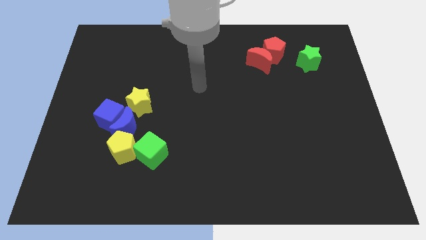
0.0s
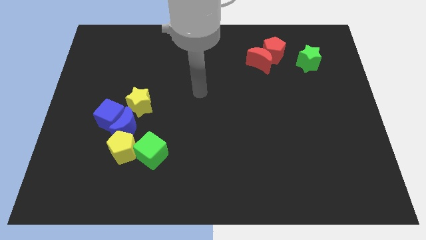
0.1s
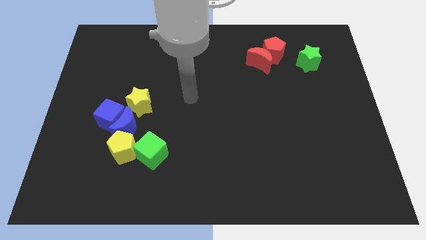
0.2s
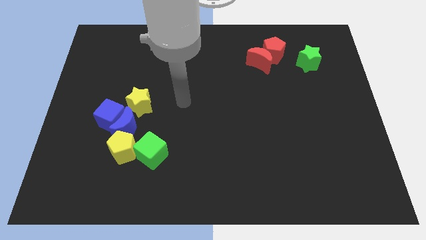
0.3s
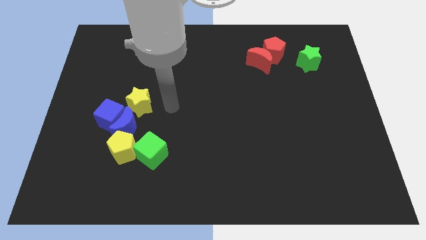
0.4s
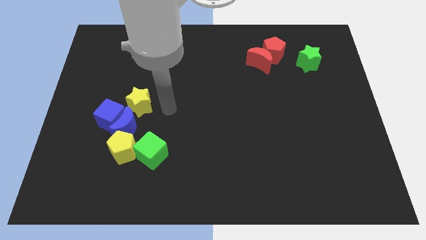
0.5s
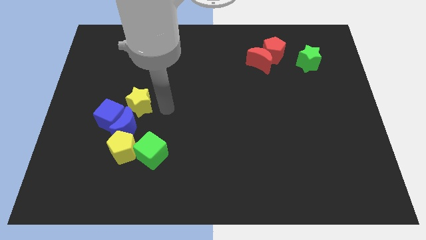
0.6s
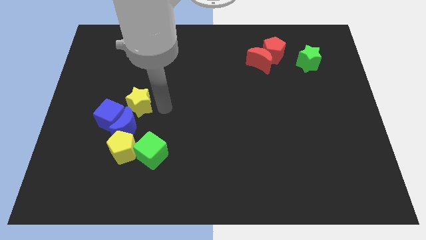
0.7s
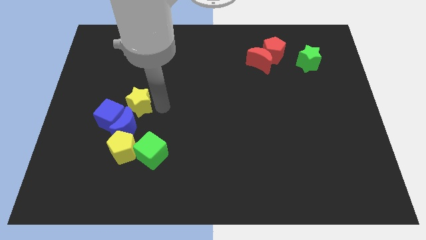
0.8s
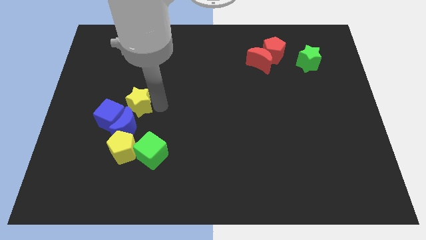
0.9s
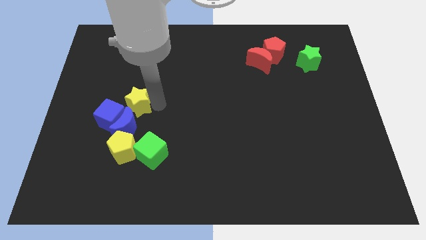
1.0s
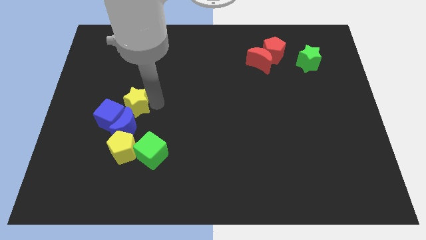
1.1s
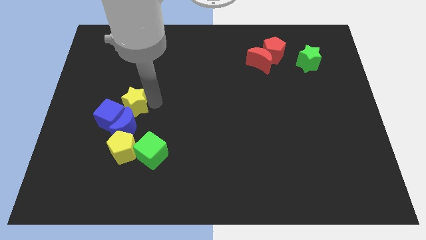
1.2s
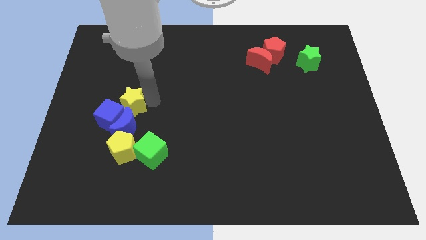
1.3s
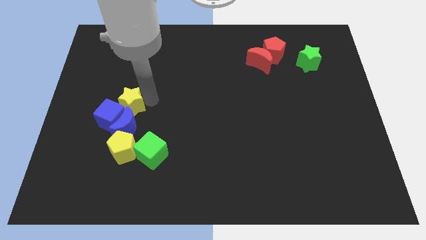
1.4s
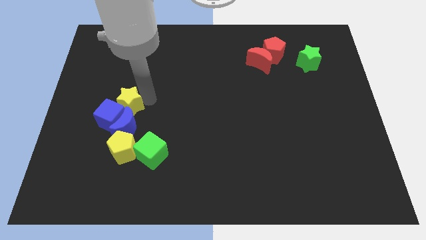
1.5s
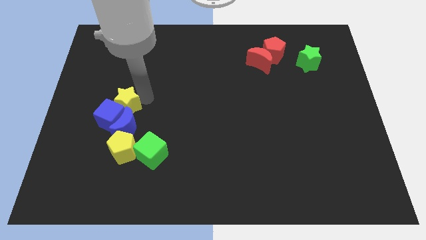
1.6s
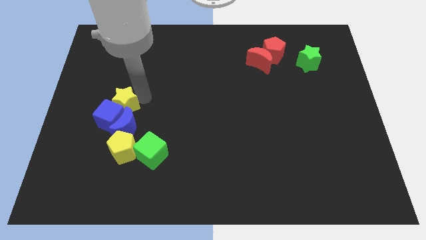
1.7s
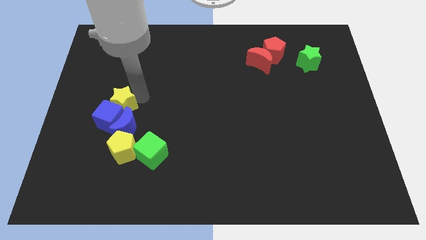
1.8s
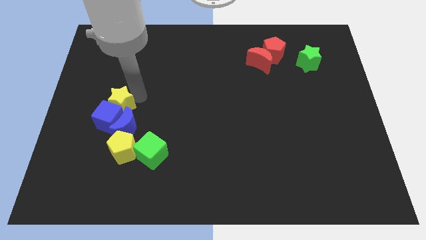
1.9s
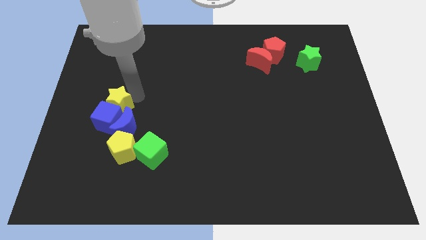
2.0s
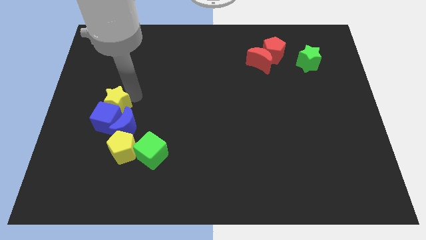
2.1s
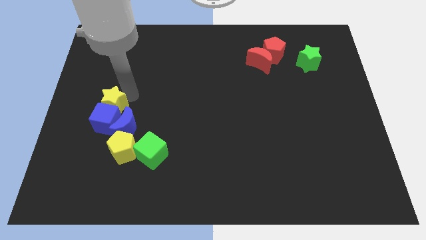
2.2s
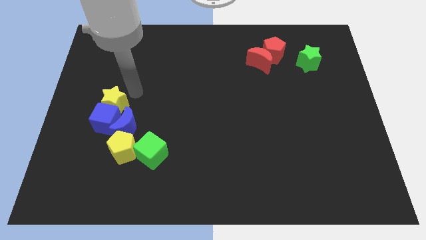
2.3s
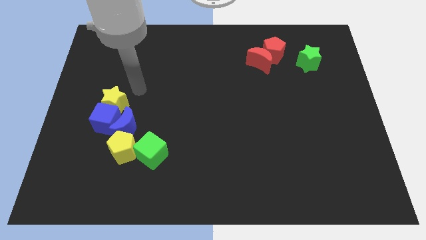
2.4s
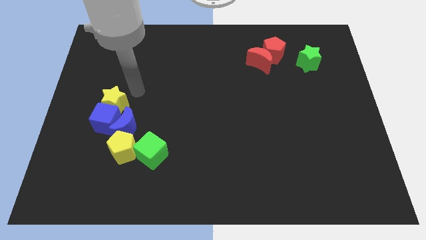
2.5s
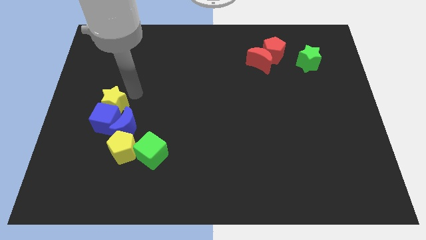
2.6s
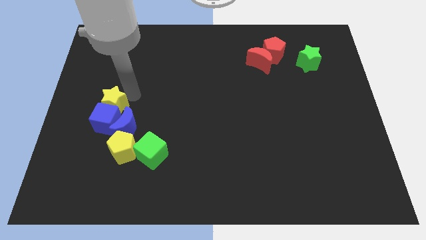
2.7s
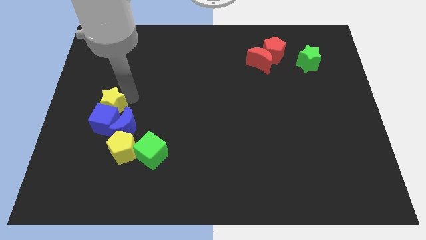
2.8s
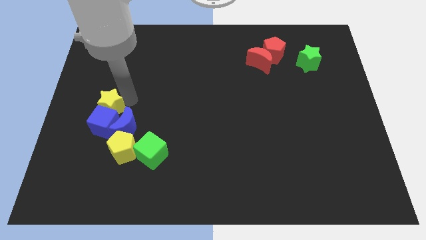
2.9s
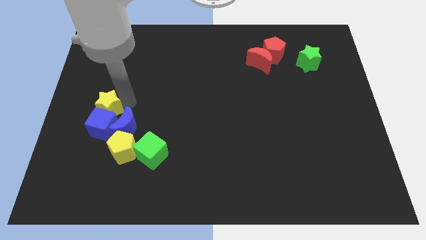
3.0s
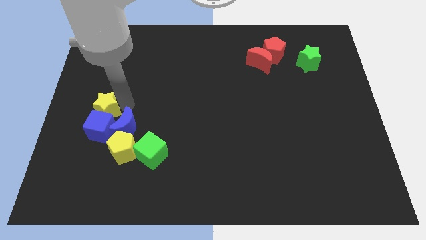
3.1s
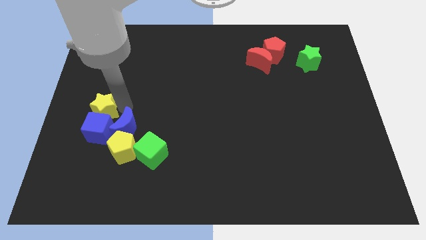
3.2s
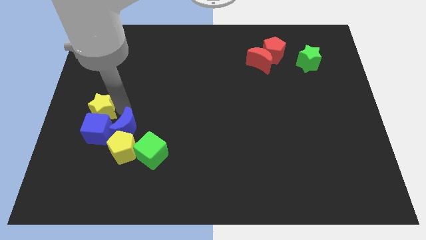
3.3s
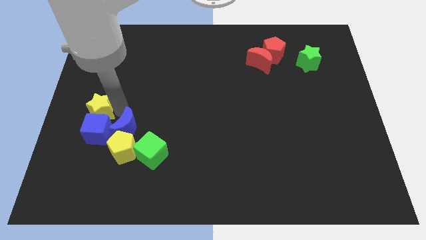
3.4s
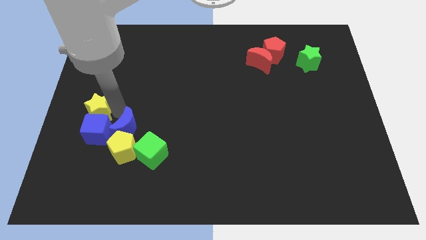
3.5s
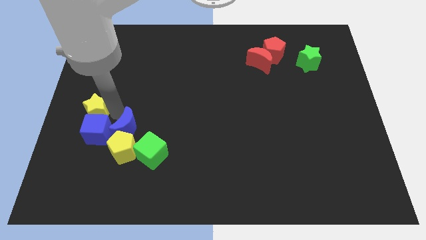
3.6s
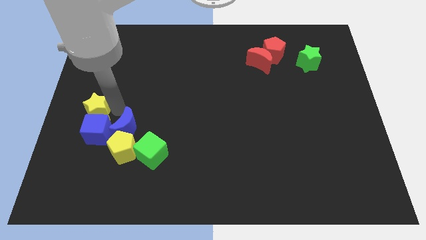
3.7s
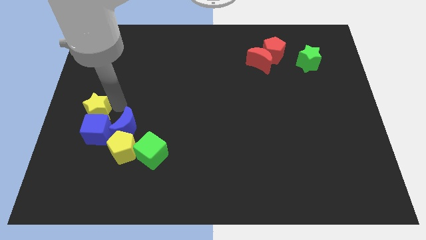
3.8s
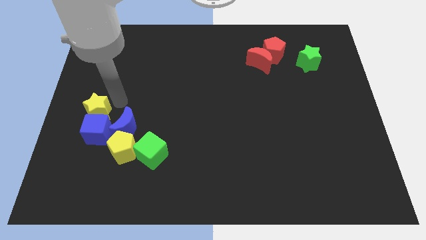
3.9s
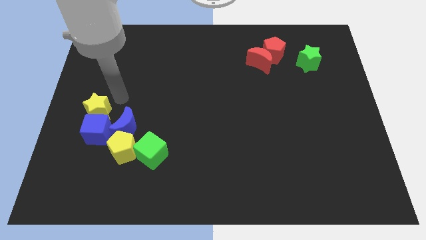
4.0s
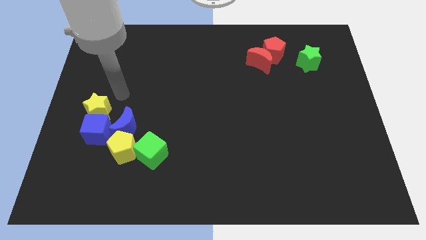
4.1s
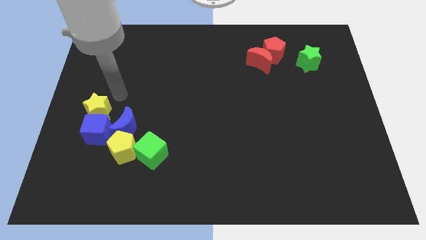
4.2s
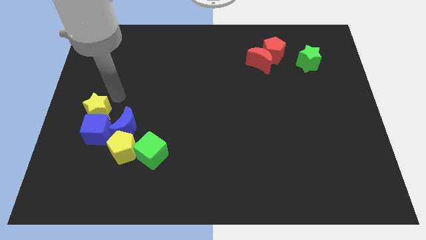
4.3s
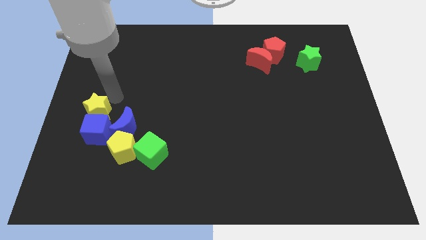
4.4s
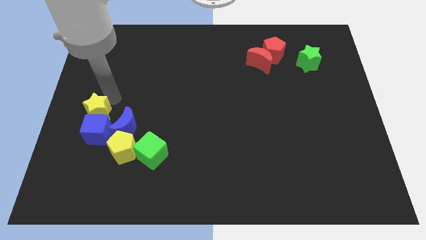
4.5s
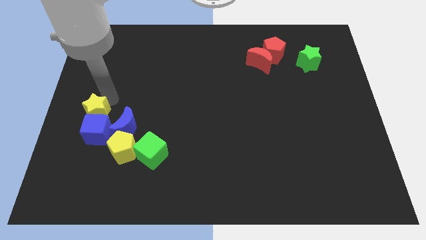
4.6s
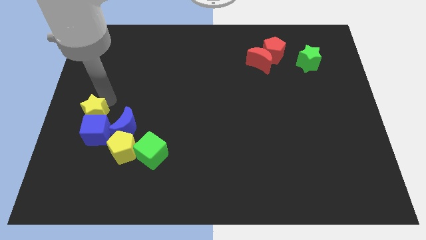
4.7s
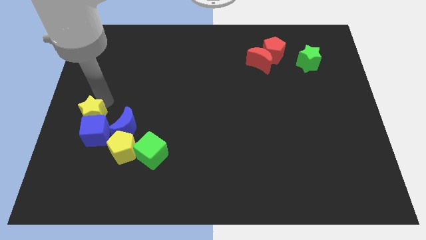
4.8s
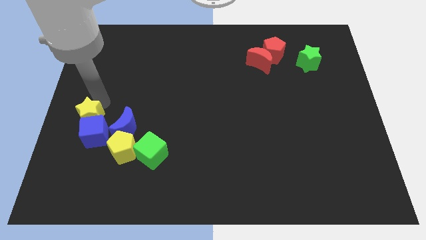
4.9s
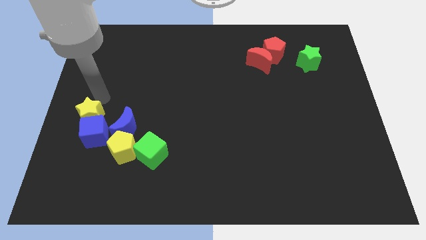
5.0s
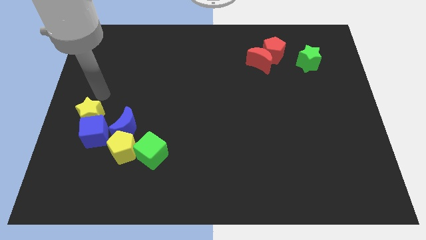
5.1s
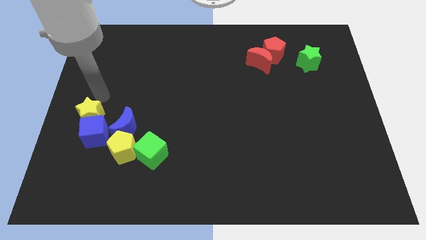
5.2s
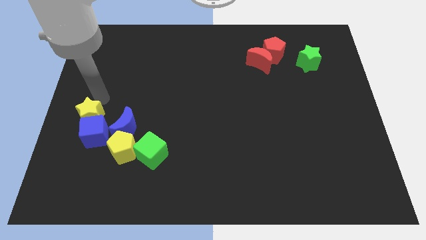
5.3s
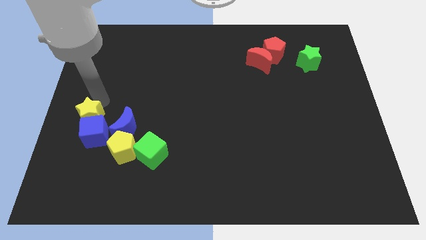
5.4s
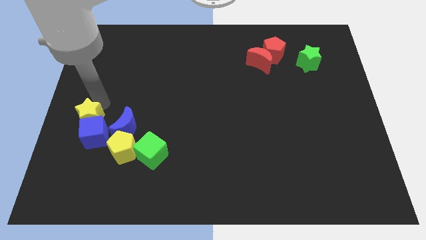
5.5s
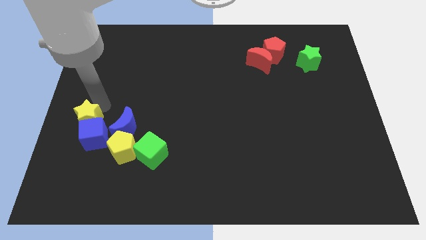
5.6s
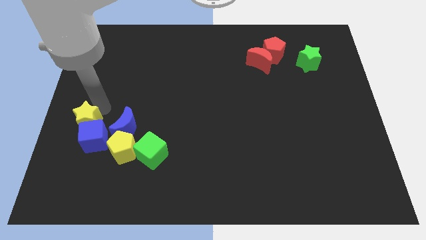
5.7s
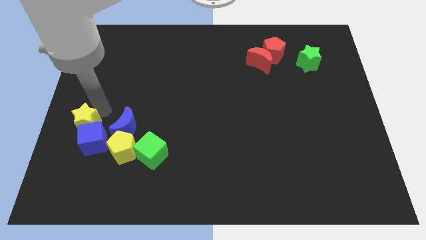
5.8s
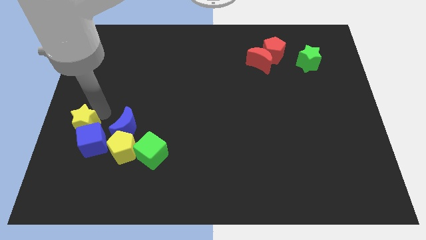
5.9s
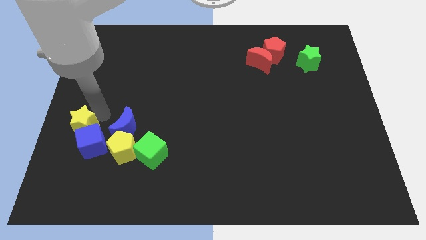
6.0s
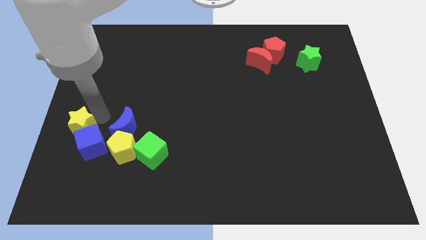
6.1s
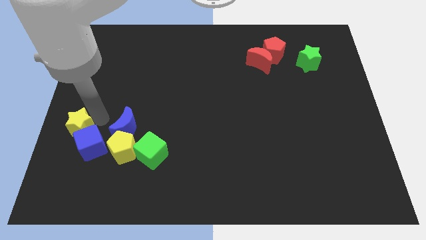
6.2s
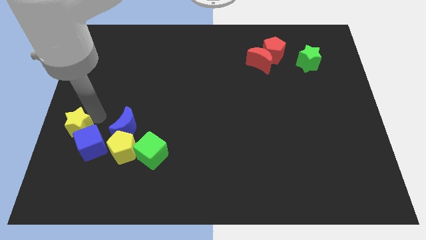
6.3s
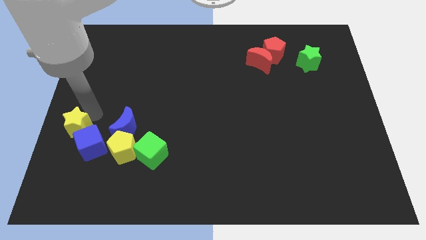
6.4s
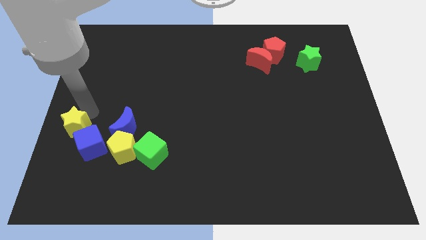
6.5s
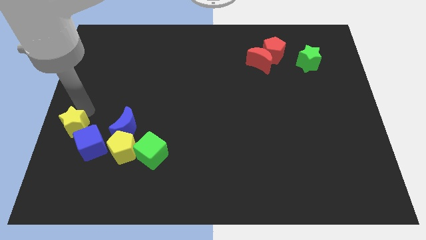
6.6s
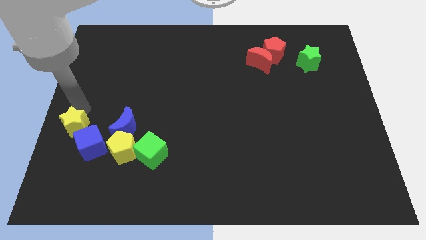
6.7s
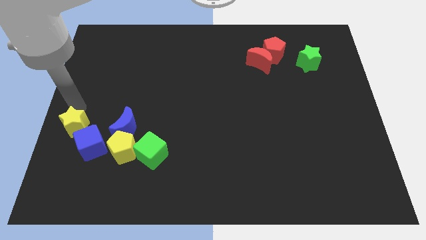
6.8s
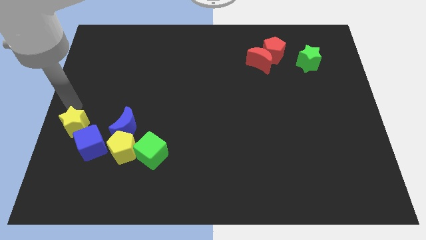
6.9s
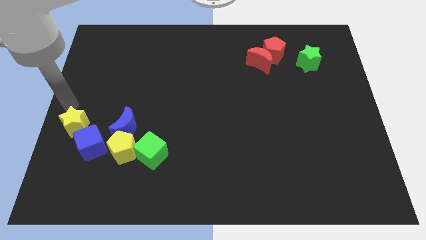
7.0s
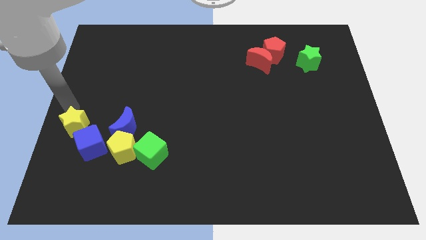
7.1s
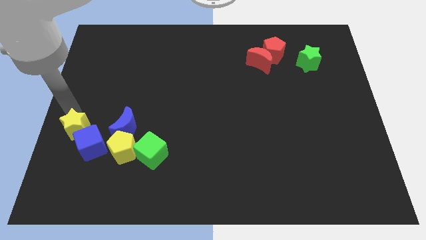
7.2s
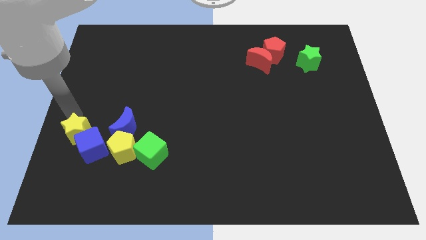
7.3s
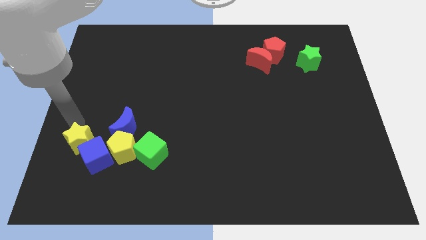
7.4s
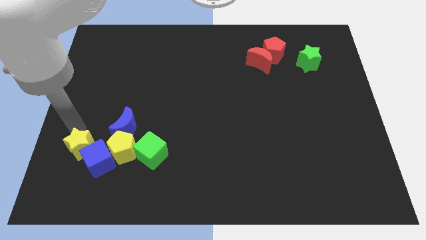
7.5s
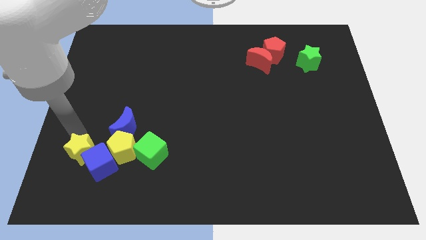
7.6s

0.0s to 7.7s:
slightly move the yellow star downwards

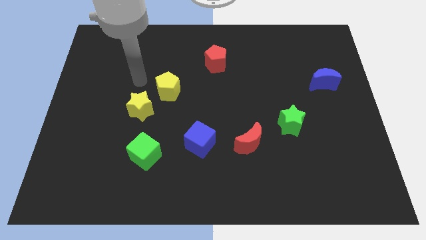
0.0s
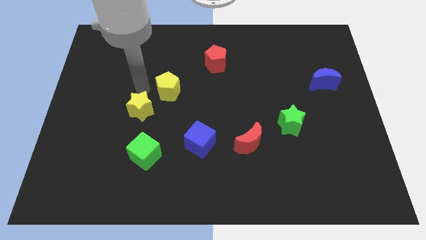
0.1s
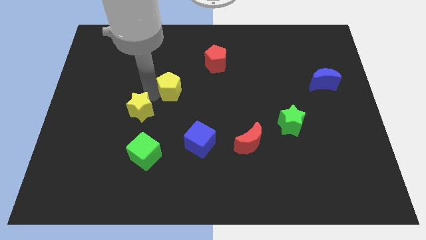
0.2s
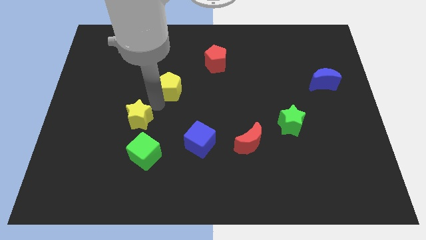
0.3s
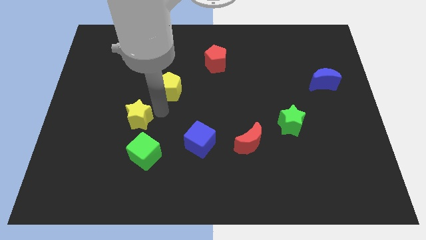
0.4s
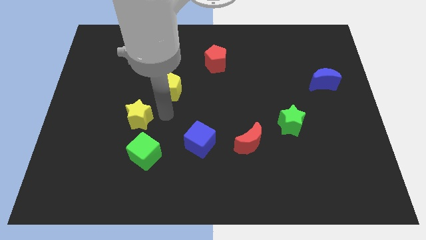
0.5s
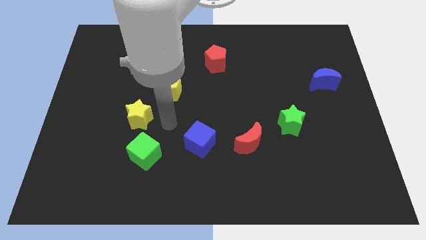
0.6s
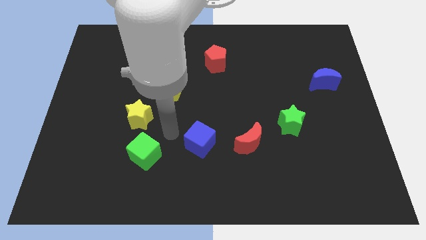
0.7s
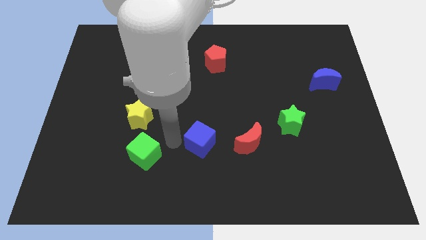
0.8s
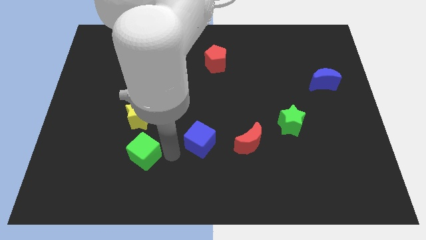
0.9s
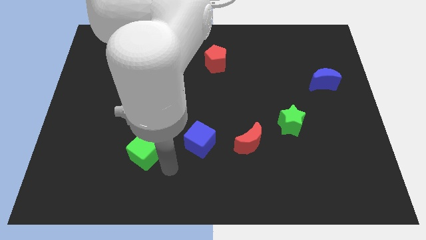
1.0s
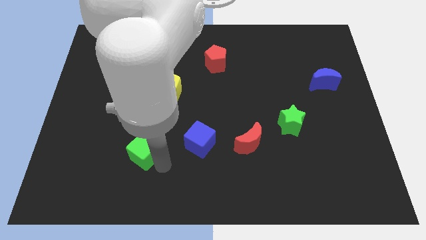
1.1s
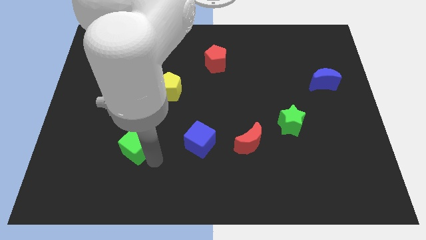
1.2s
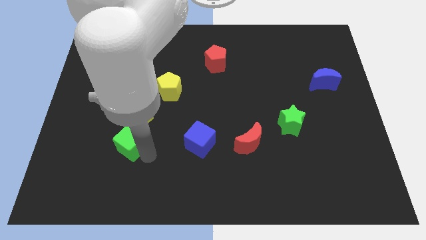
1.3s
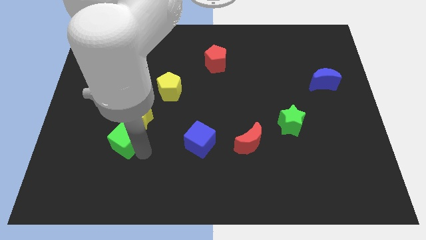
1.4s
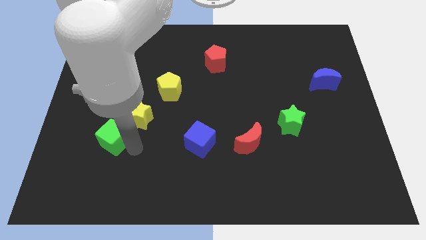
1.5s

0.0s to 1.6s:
slide the green cube a bit up and to the left diagonally
